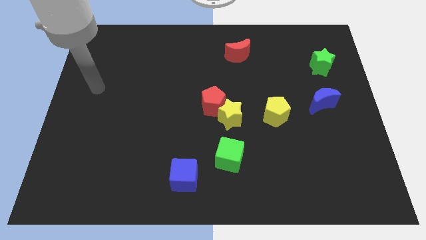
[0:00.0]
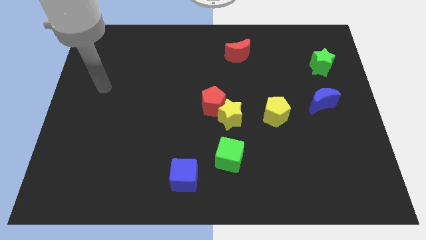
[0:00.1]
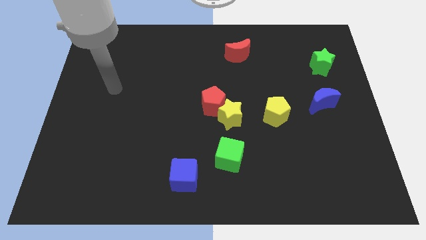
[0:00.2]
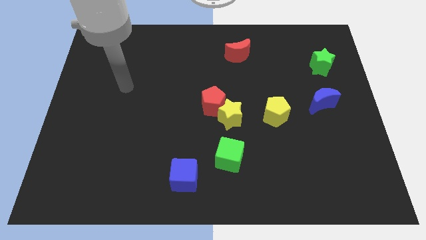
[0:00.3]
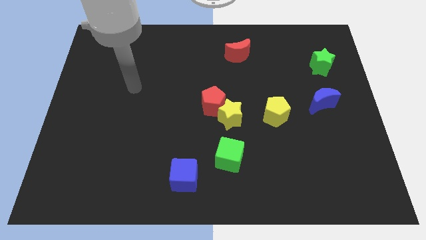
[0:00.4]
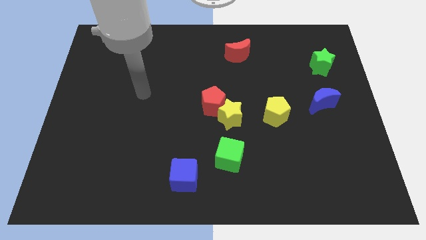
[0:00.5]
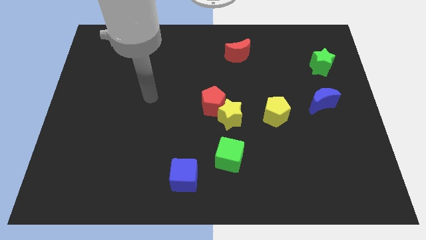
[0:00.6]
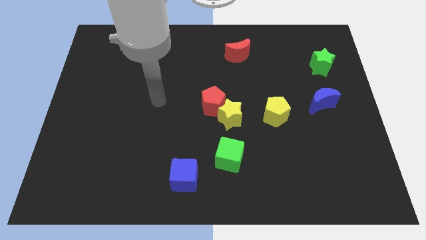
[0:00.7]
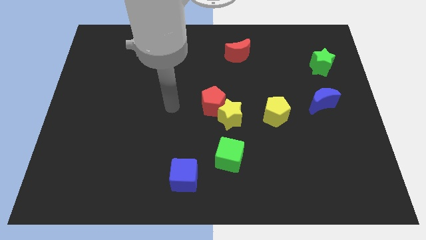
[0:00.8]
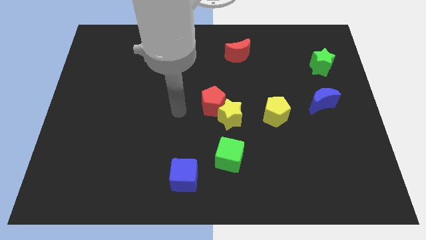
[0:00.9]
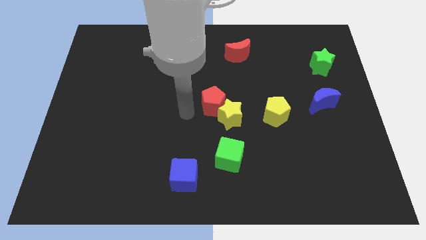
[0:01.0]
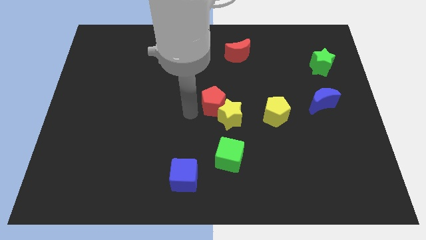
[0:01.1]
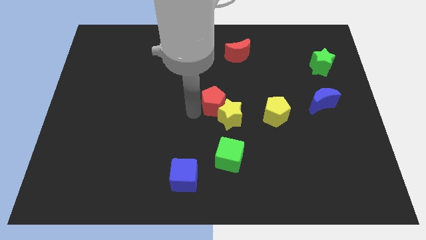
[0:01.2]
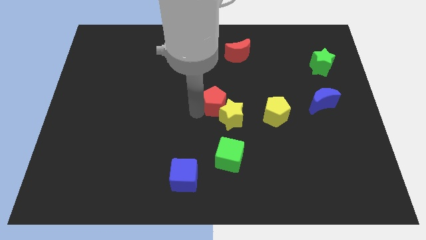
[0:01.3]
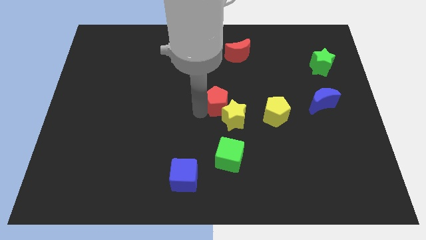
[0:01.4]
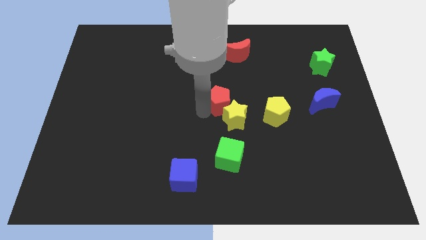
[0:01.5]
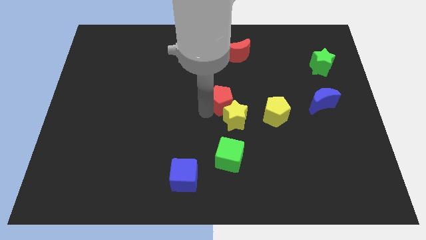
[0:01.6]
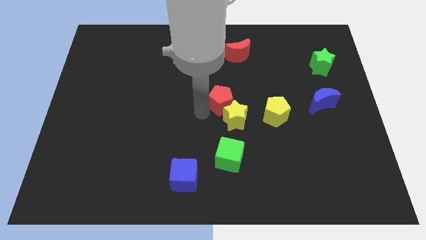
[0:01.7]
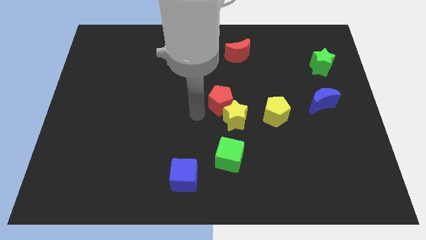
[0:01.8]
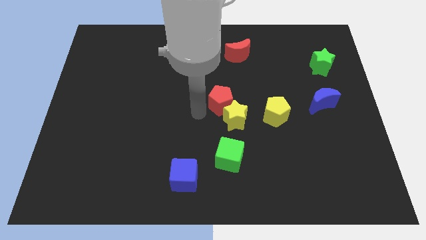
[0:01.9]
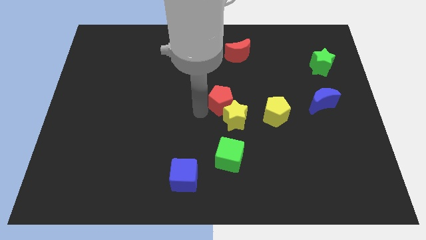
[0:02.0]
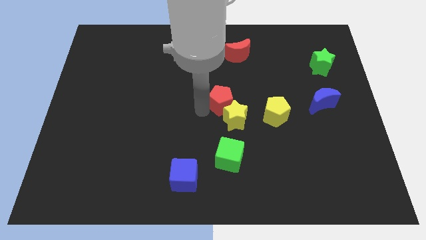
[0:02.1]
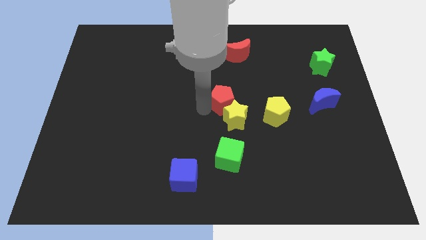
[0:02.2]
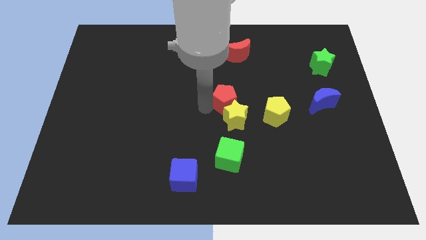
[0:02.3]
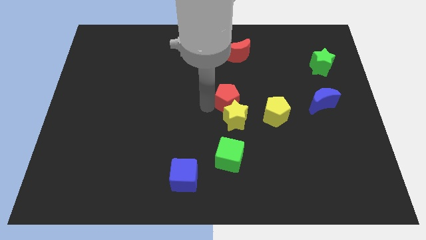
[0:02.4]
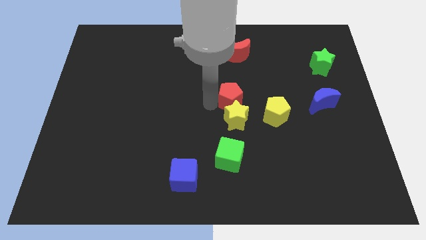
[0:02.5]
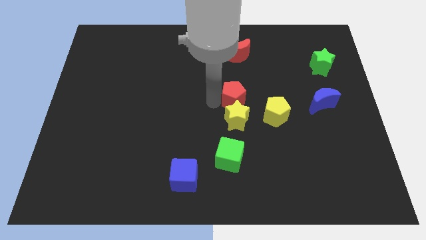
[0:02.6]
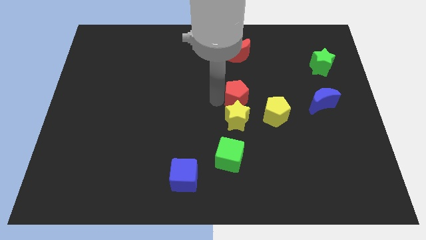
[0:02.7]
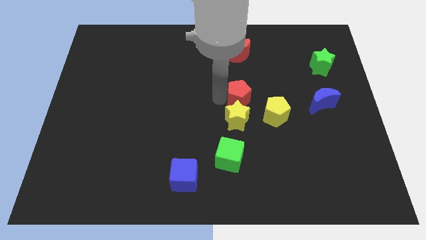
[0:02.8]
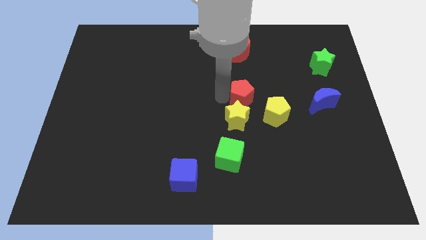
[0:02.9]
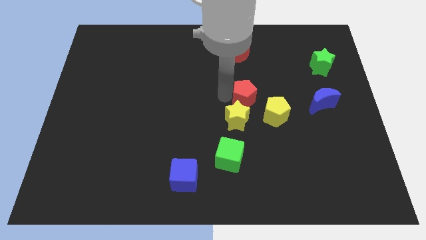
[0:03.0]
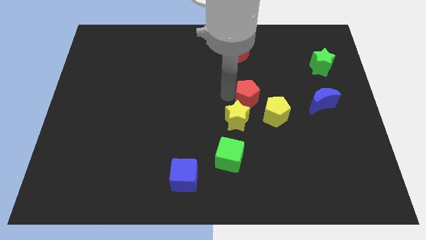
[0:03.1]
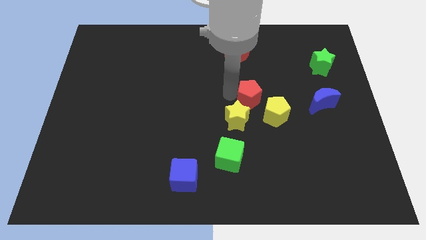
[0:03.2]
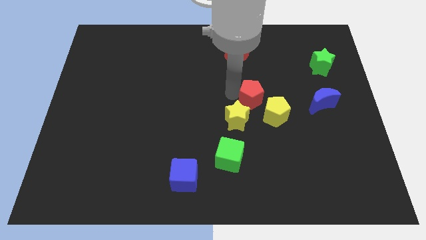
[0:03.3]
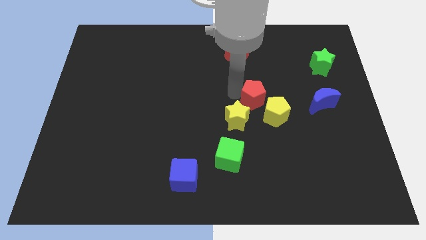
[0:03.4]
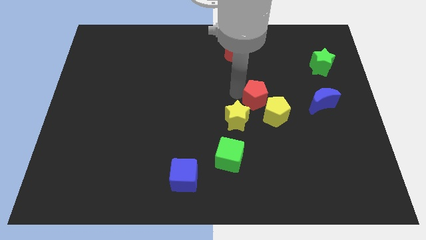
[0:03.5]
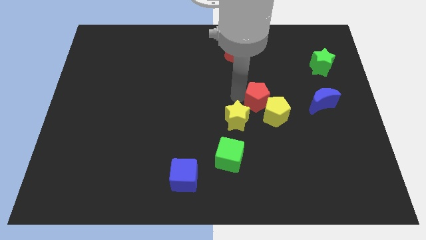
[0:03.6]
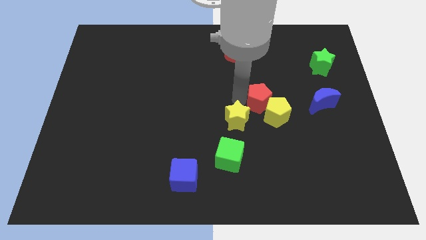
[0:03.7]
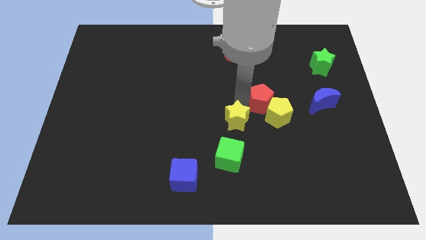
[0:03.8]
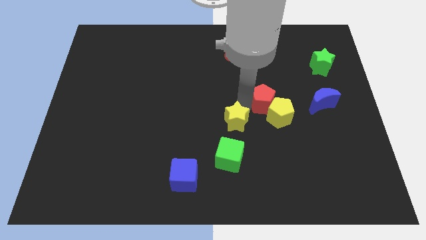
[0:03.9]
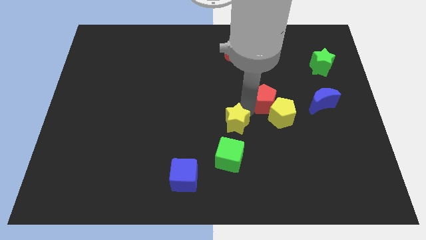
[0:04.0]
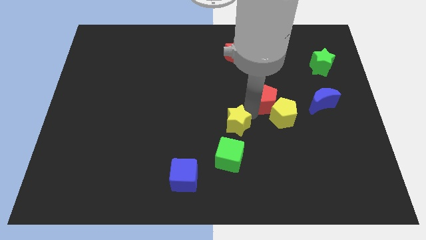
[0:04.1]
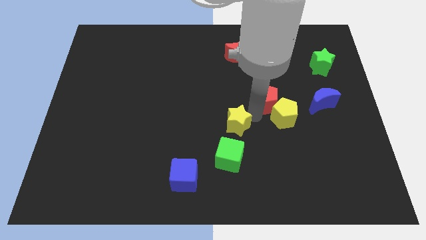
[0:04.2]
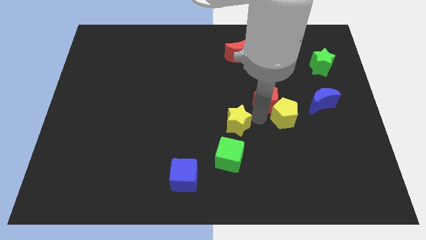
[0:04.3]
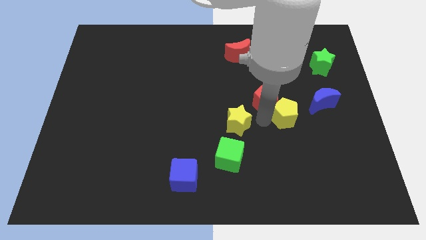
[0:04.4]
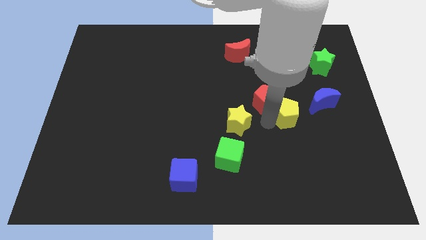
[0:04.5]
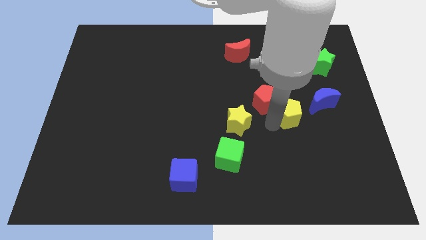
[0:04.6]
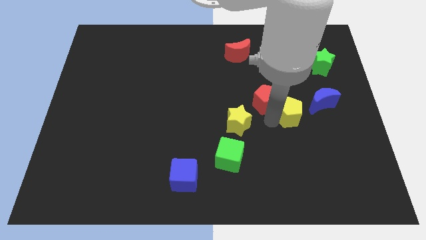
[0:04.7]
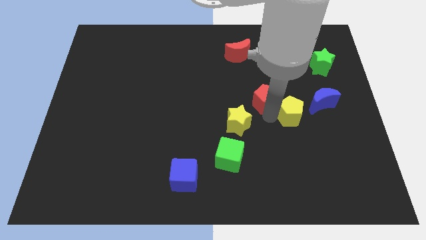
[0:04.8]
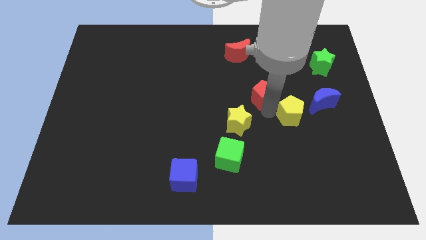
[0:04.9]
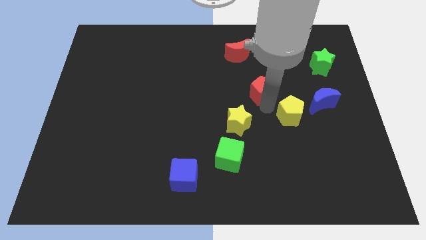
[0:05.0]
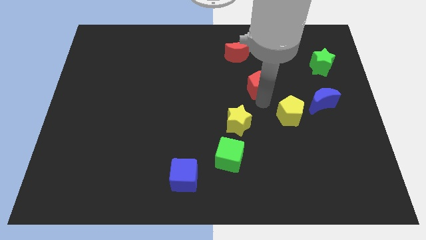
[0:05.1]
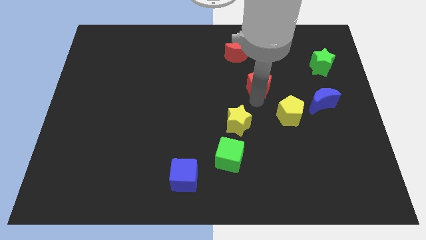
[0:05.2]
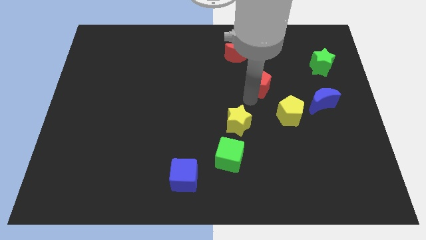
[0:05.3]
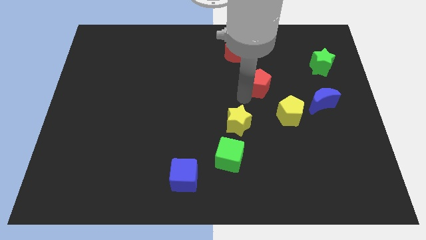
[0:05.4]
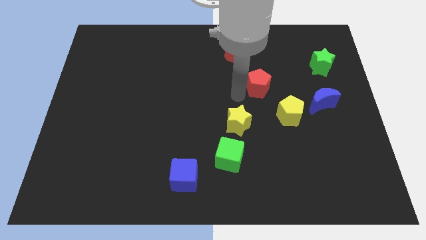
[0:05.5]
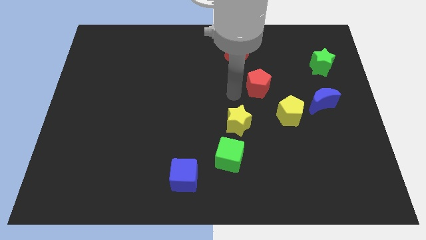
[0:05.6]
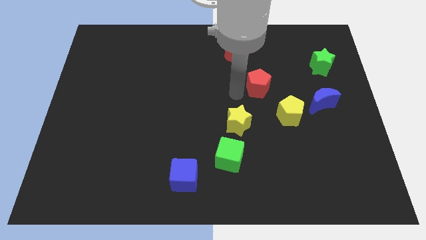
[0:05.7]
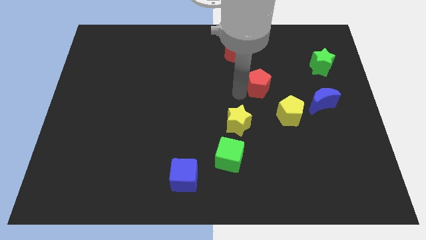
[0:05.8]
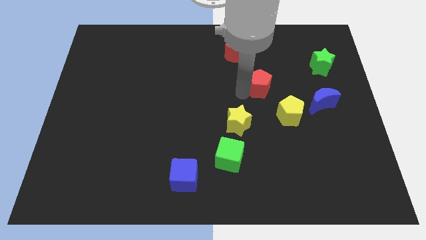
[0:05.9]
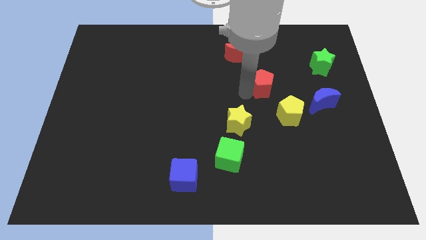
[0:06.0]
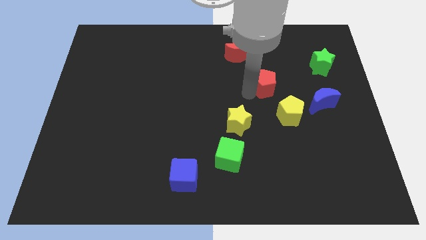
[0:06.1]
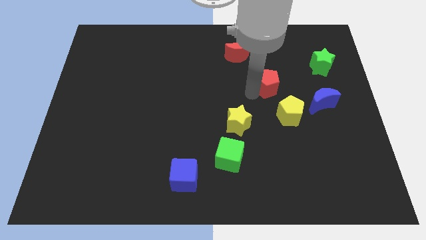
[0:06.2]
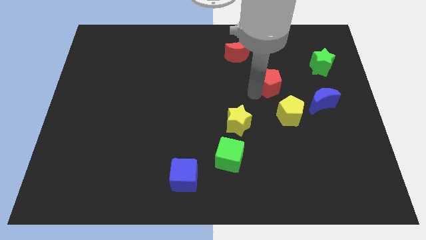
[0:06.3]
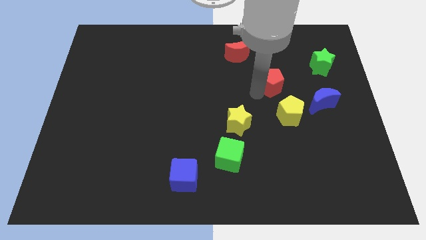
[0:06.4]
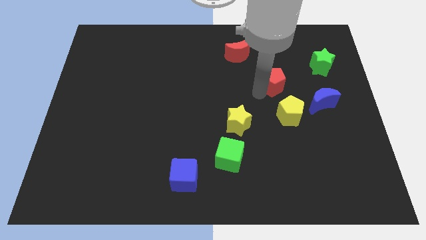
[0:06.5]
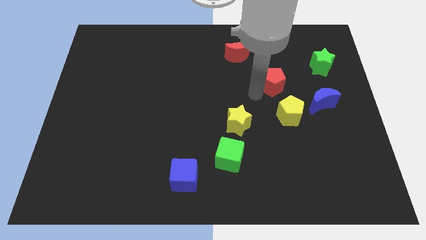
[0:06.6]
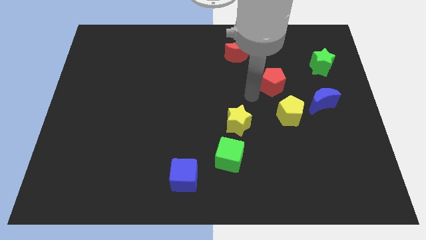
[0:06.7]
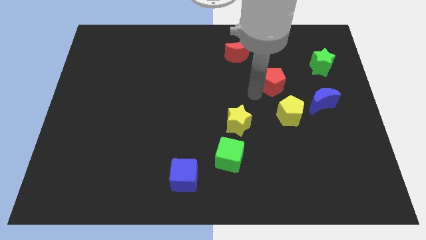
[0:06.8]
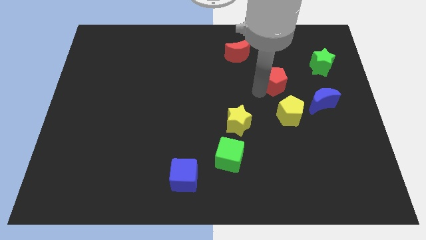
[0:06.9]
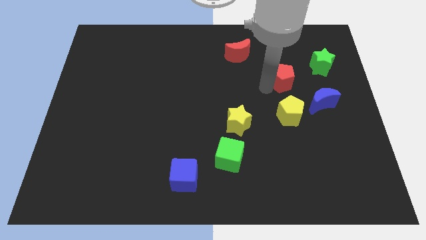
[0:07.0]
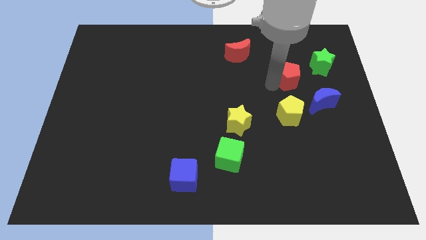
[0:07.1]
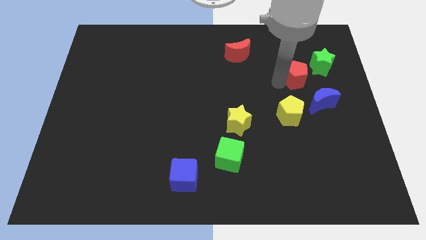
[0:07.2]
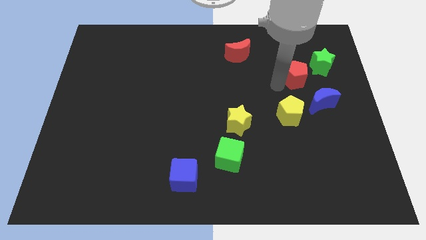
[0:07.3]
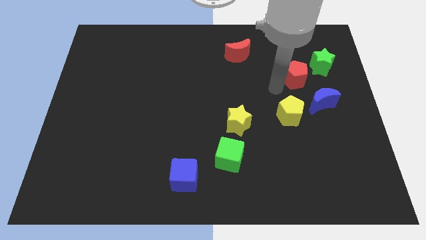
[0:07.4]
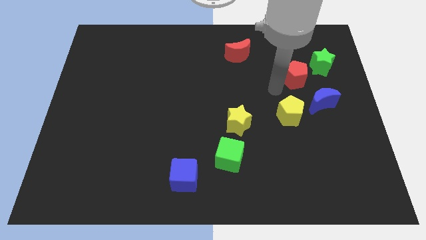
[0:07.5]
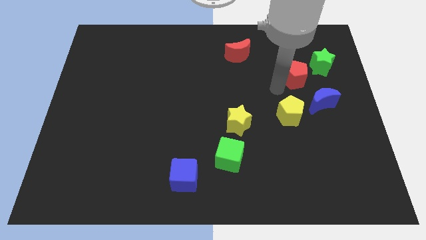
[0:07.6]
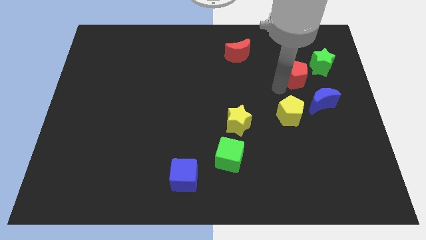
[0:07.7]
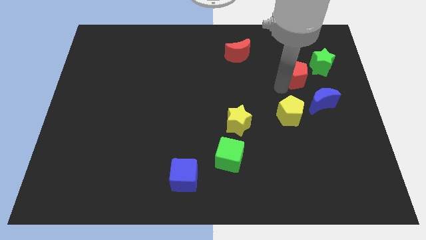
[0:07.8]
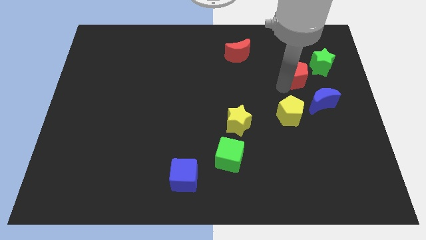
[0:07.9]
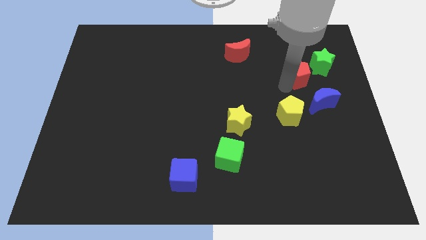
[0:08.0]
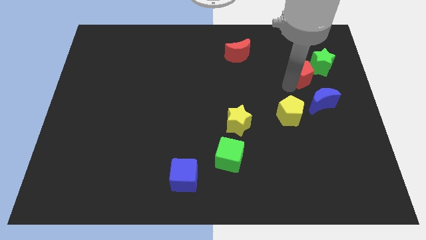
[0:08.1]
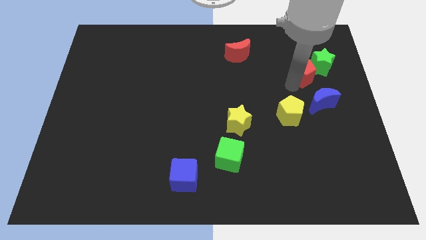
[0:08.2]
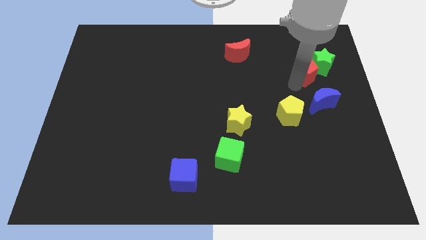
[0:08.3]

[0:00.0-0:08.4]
move the red pentagon close to the green star
